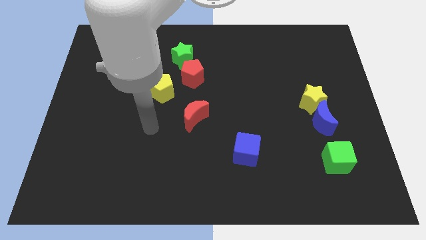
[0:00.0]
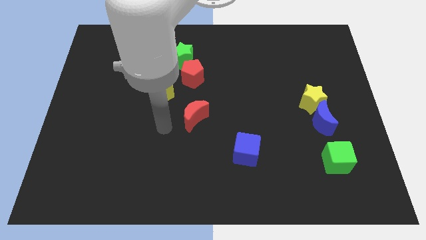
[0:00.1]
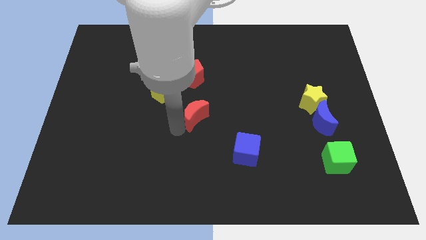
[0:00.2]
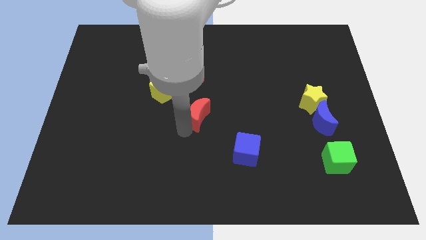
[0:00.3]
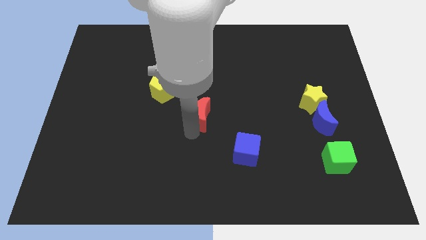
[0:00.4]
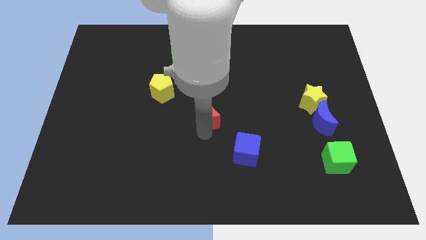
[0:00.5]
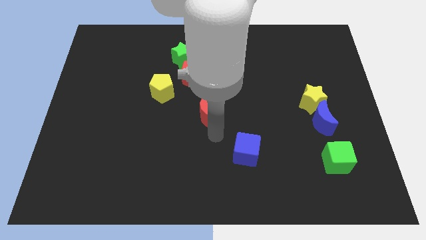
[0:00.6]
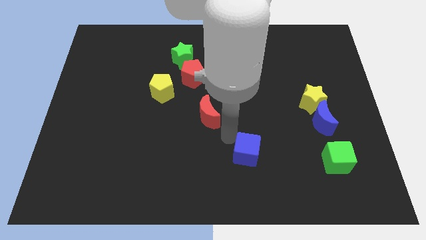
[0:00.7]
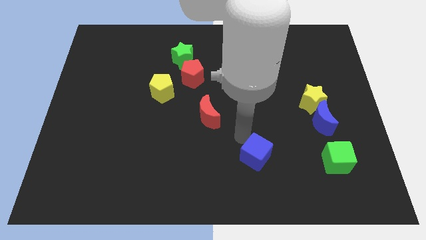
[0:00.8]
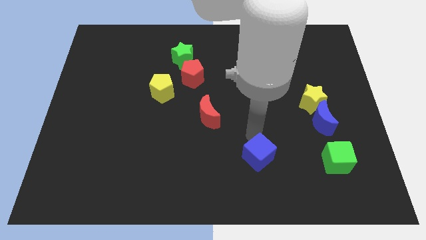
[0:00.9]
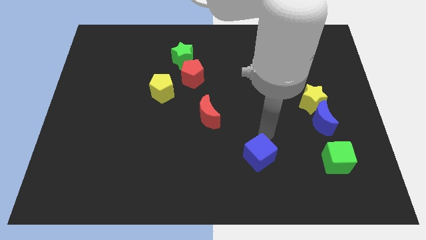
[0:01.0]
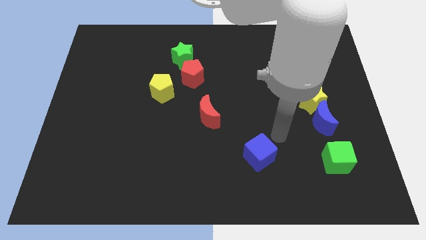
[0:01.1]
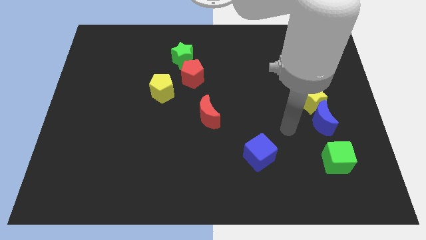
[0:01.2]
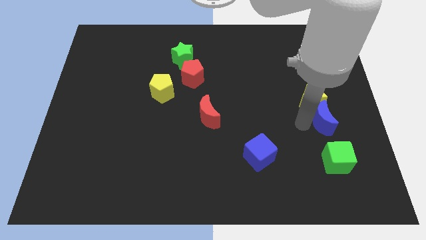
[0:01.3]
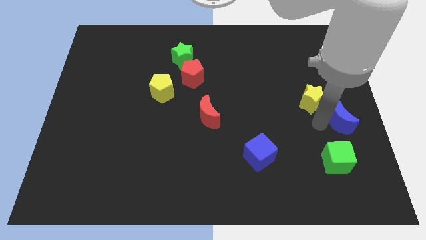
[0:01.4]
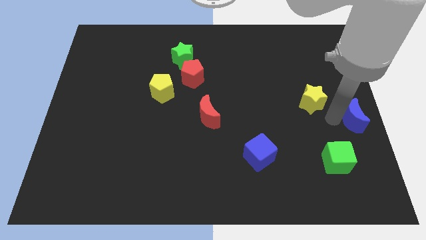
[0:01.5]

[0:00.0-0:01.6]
separate the yellow star from the blue moon

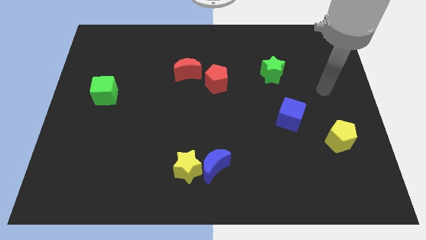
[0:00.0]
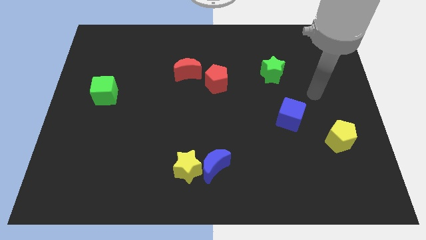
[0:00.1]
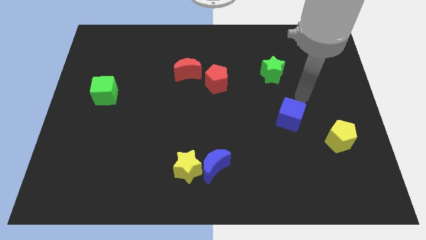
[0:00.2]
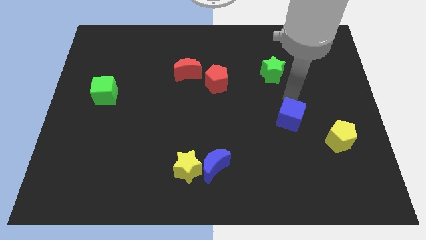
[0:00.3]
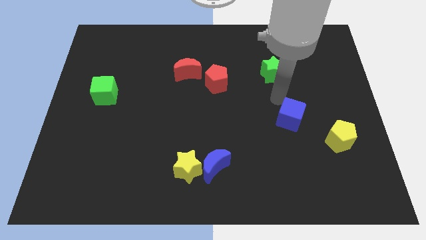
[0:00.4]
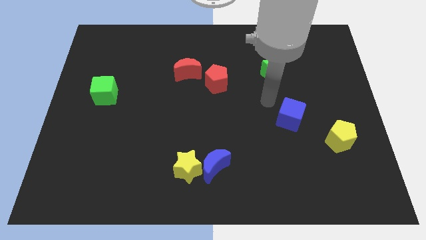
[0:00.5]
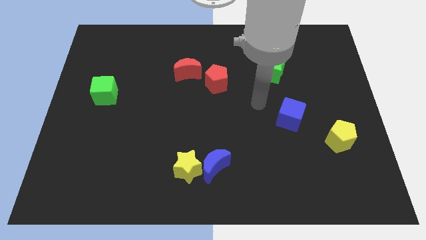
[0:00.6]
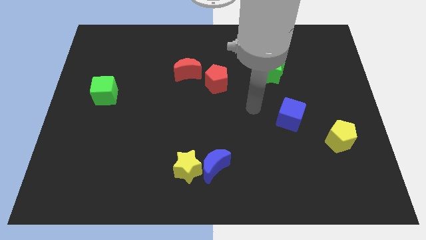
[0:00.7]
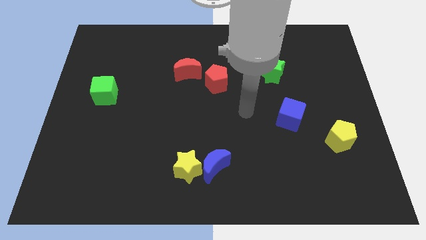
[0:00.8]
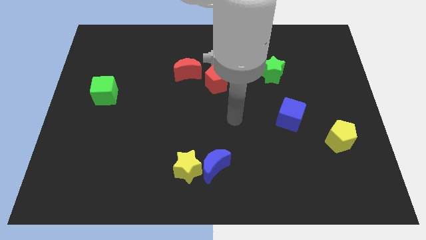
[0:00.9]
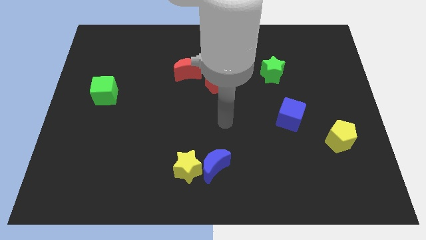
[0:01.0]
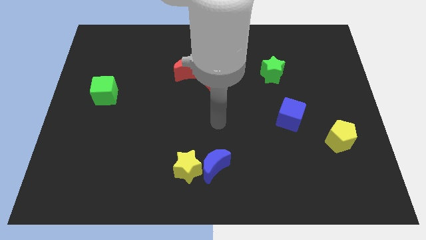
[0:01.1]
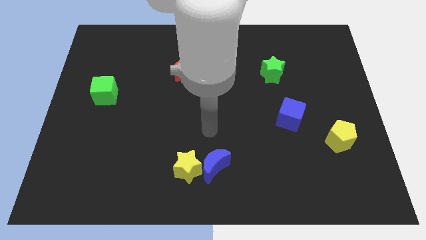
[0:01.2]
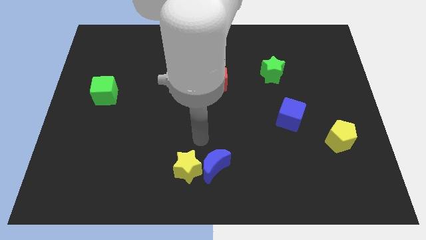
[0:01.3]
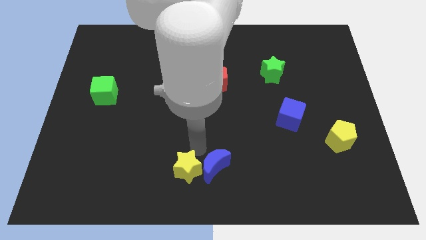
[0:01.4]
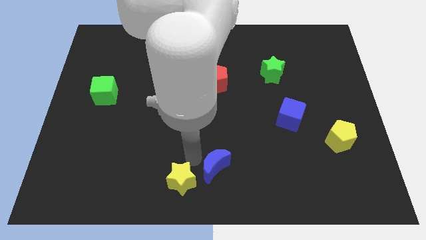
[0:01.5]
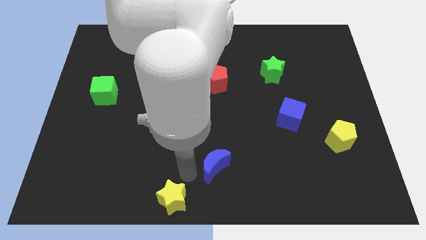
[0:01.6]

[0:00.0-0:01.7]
separate the blue moon from the yellow star

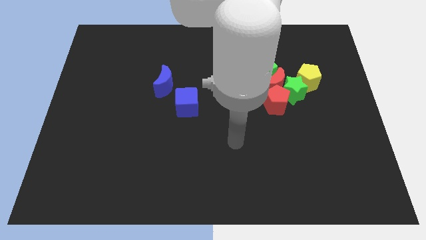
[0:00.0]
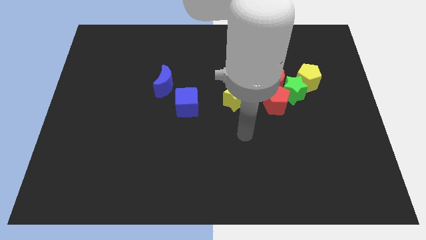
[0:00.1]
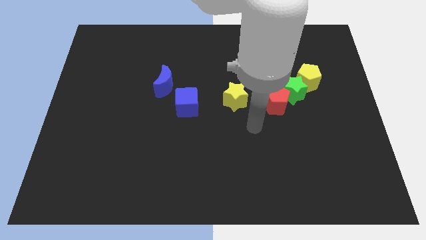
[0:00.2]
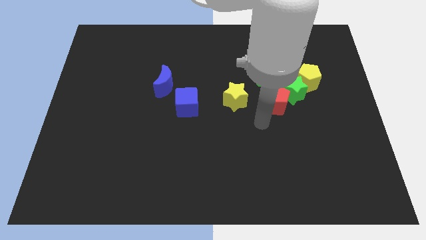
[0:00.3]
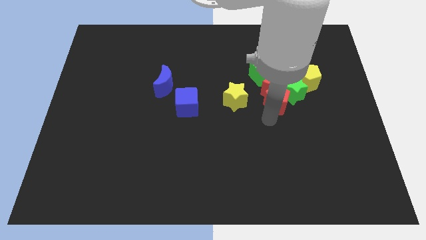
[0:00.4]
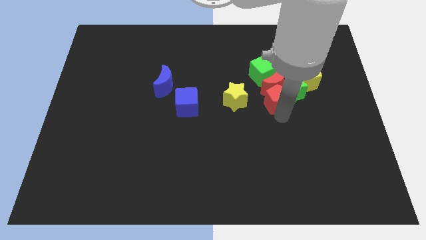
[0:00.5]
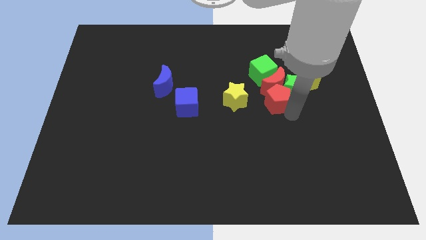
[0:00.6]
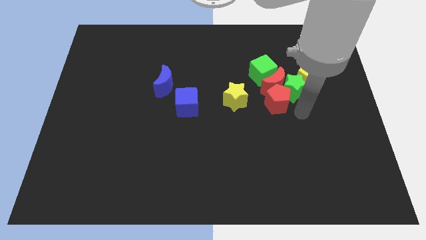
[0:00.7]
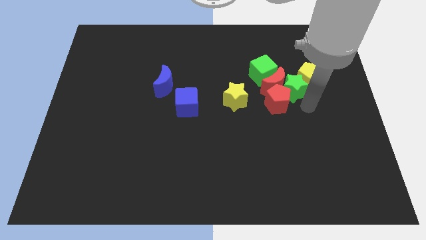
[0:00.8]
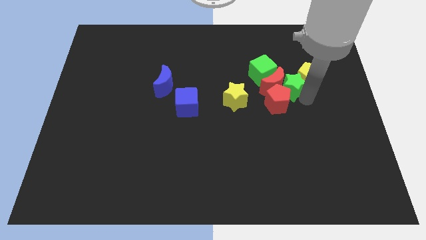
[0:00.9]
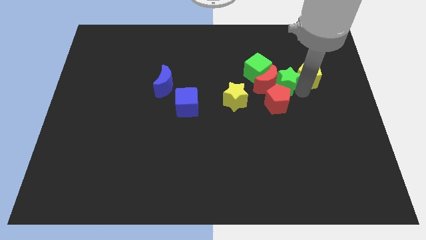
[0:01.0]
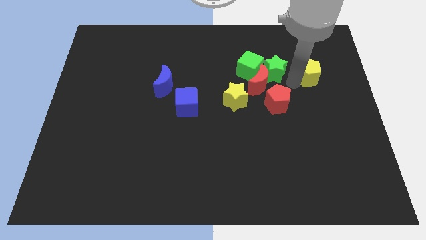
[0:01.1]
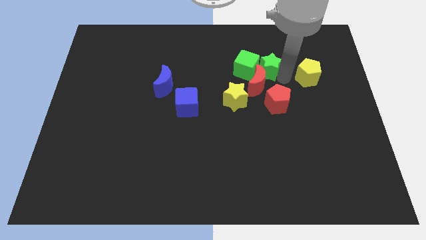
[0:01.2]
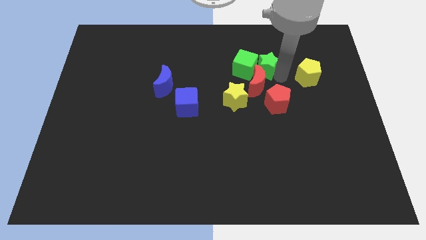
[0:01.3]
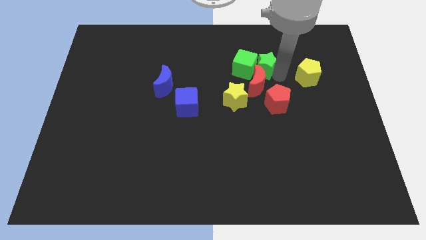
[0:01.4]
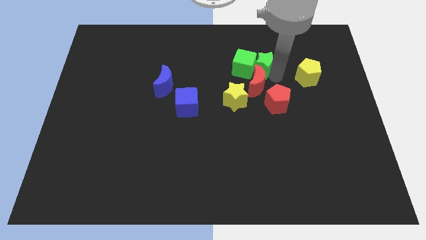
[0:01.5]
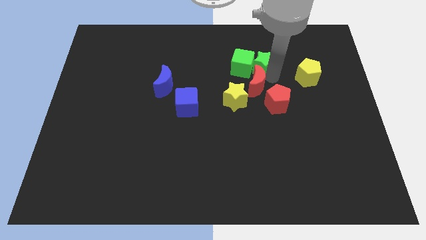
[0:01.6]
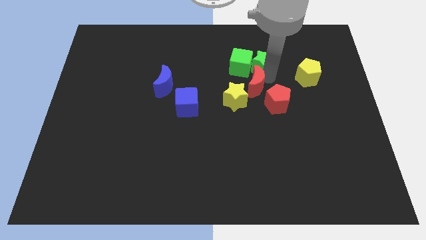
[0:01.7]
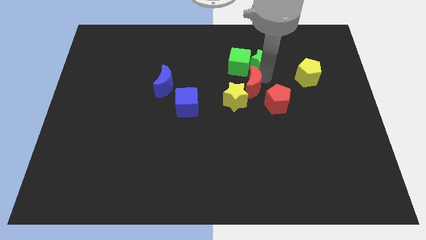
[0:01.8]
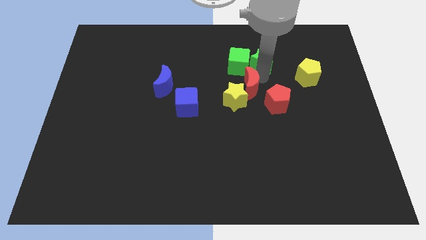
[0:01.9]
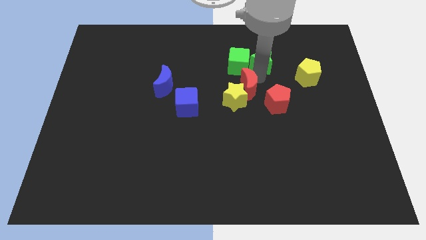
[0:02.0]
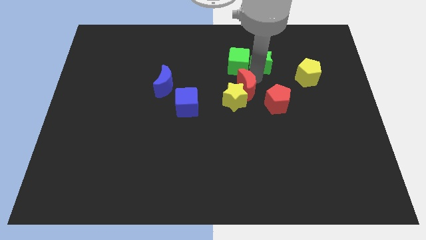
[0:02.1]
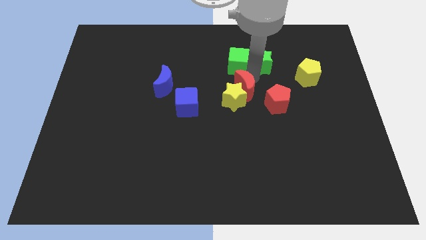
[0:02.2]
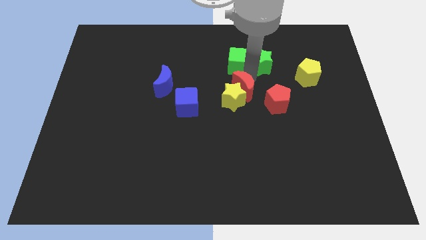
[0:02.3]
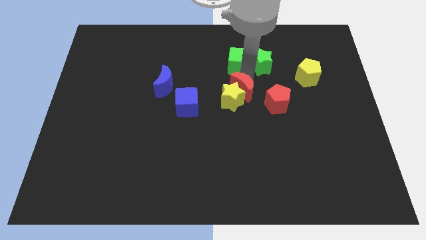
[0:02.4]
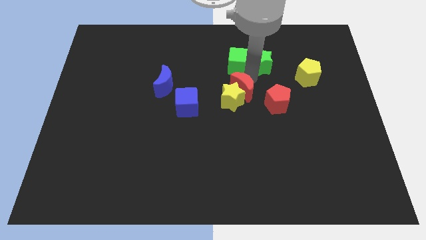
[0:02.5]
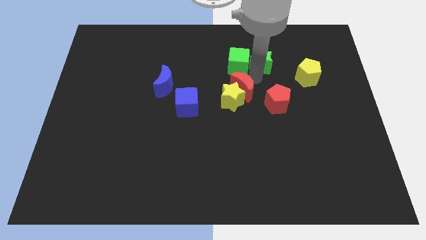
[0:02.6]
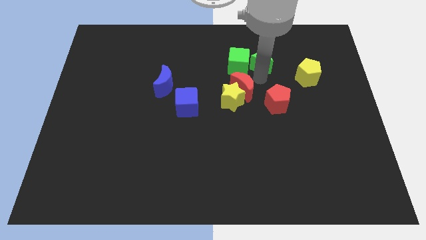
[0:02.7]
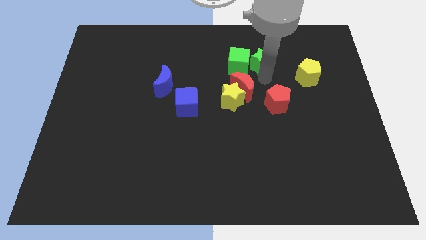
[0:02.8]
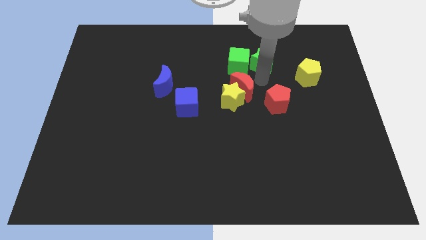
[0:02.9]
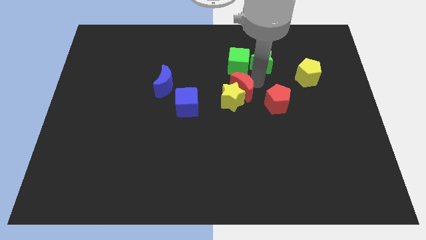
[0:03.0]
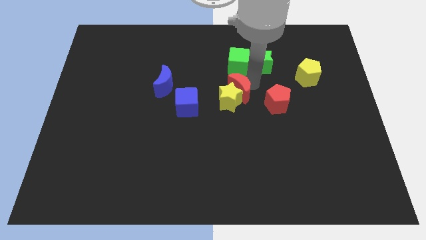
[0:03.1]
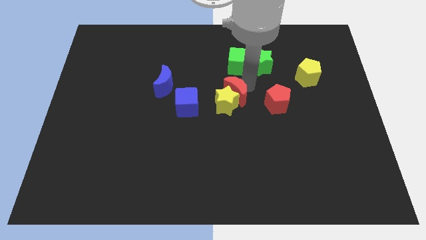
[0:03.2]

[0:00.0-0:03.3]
pull the red moon apart from the group of blocks

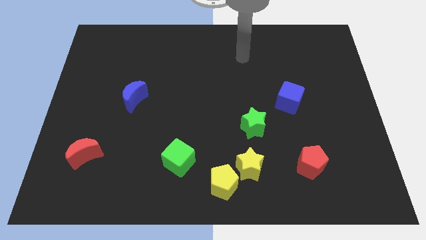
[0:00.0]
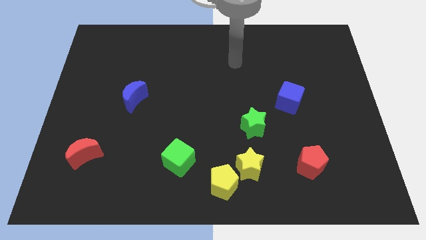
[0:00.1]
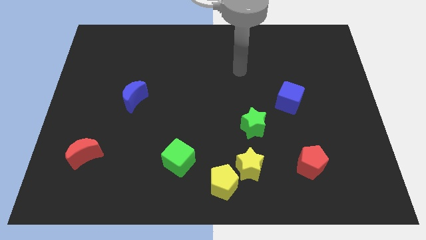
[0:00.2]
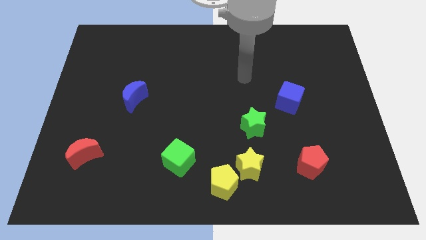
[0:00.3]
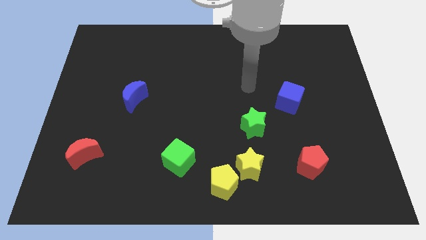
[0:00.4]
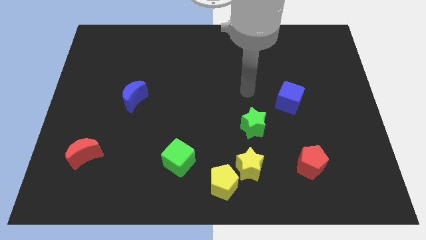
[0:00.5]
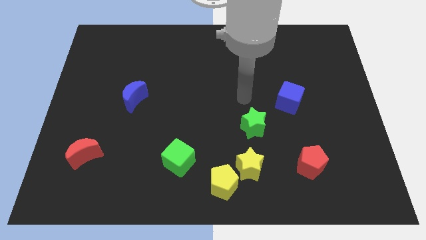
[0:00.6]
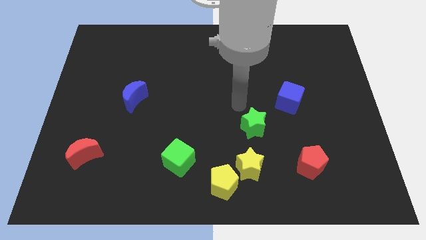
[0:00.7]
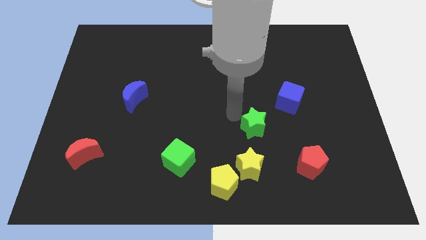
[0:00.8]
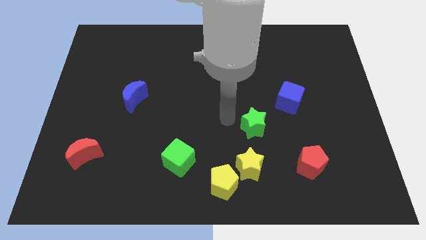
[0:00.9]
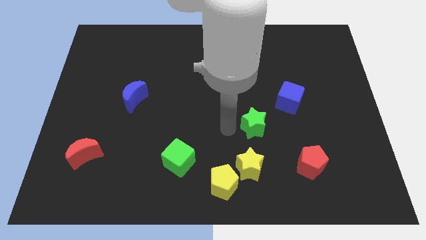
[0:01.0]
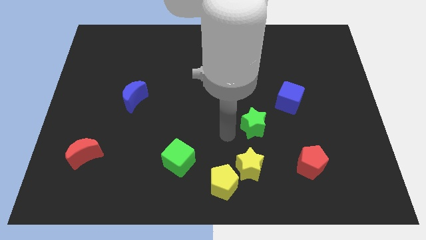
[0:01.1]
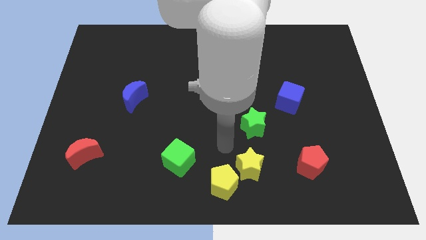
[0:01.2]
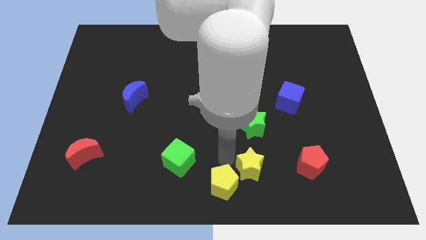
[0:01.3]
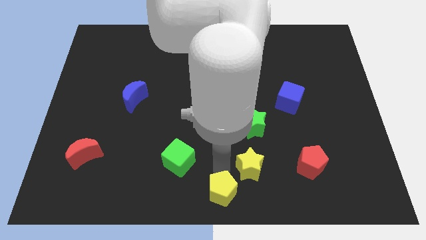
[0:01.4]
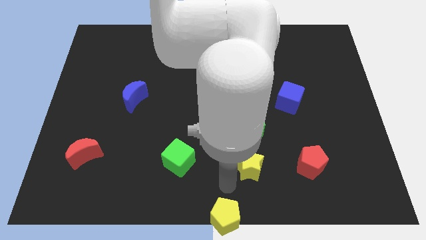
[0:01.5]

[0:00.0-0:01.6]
pull the yellow star apart from the yellow pentagon

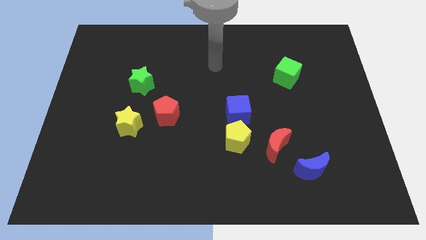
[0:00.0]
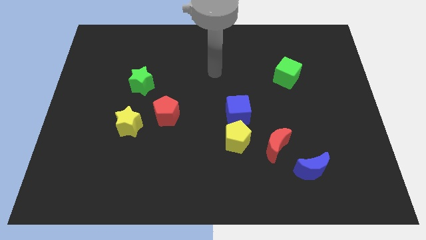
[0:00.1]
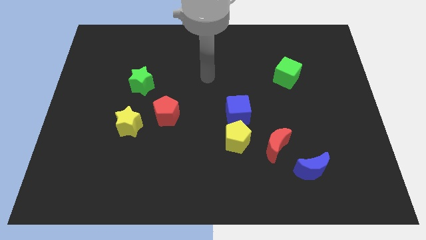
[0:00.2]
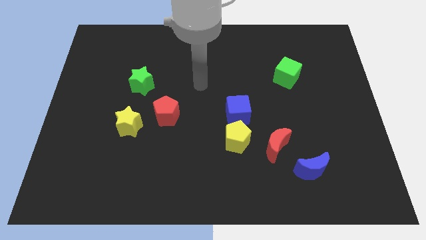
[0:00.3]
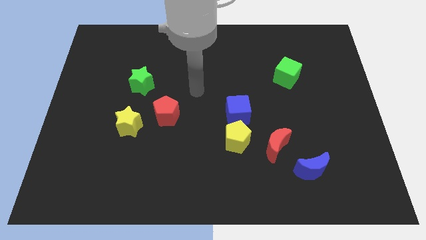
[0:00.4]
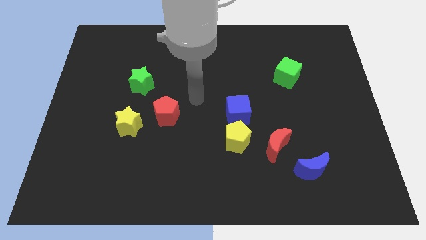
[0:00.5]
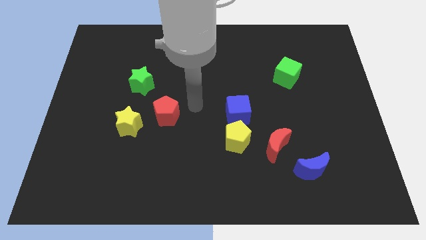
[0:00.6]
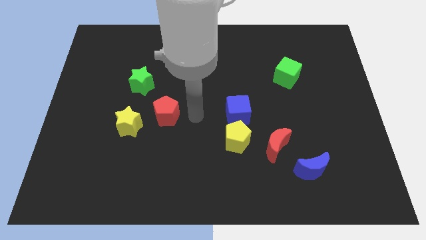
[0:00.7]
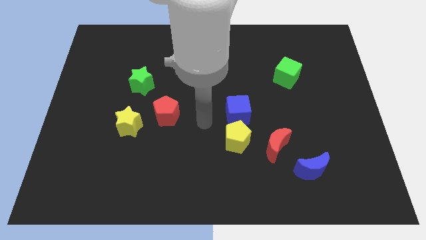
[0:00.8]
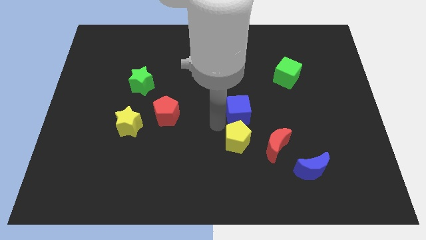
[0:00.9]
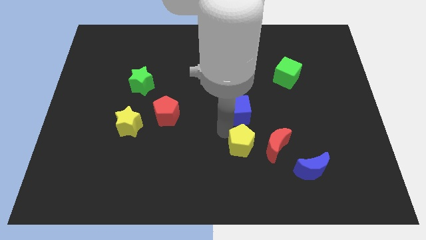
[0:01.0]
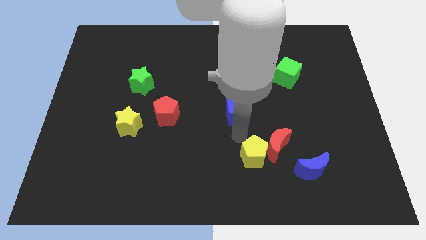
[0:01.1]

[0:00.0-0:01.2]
pull the blue cube apart from the yellow pentagon
